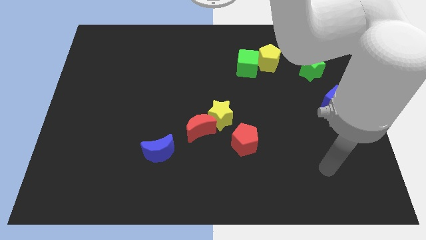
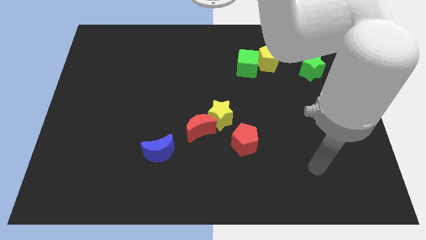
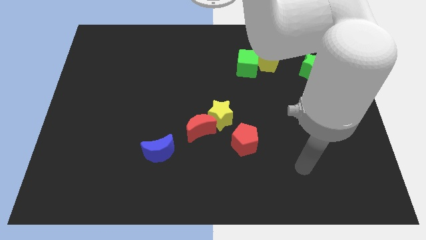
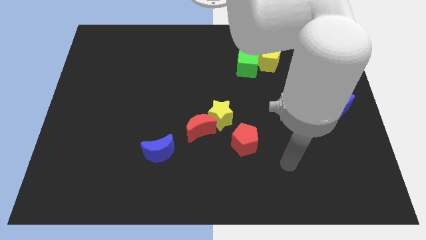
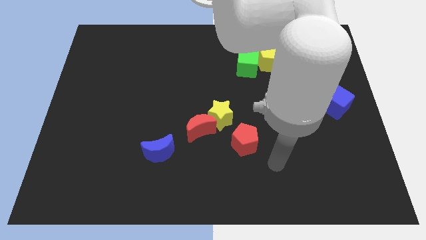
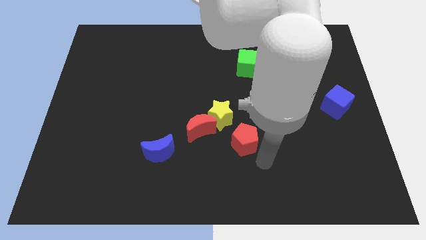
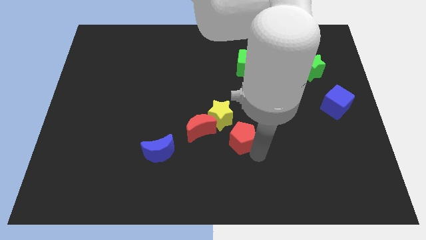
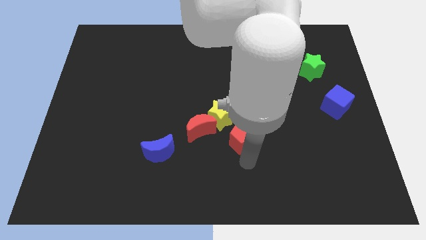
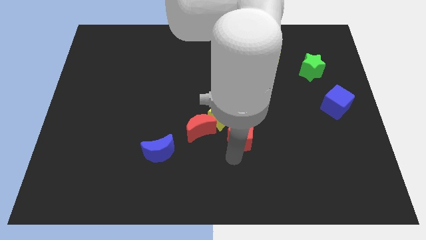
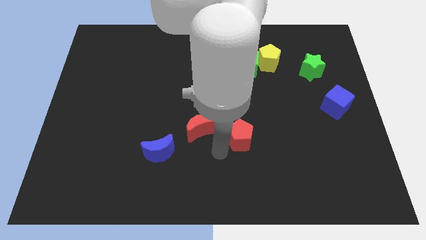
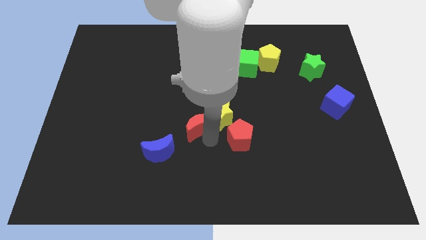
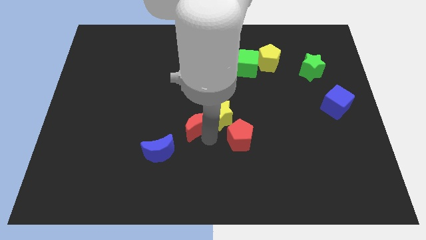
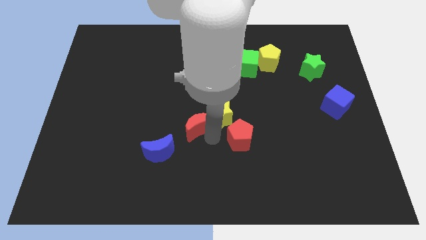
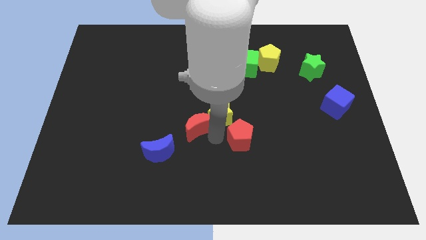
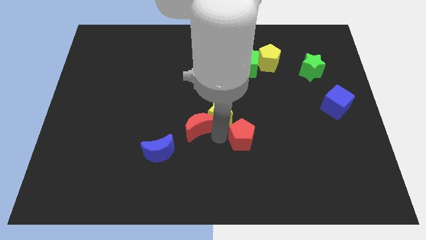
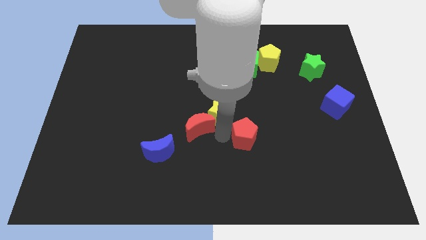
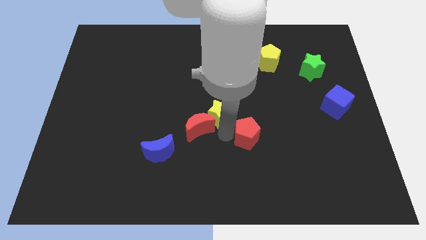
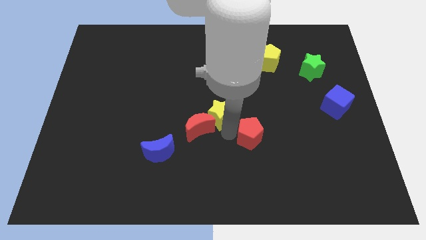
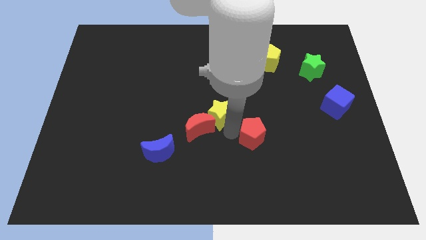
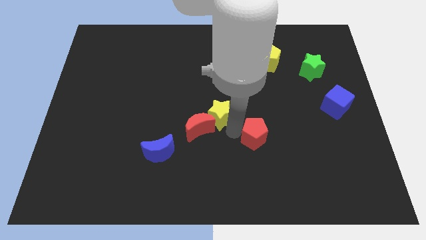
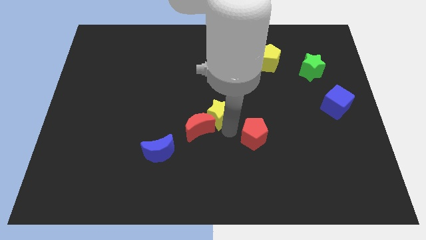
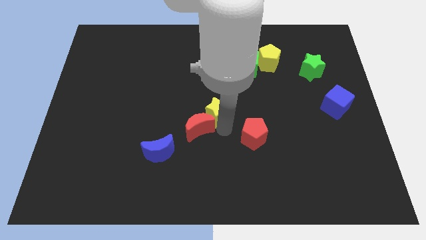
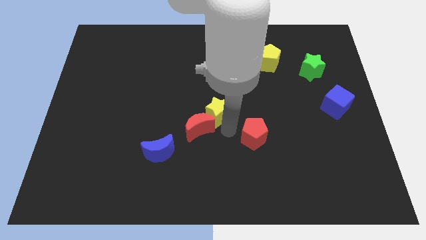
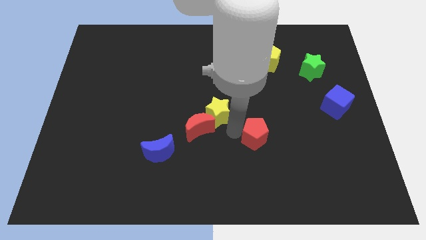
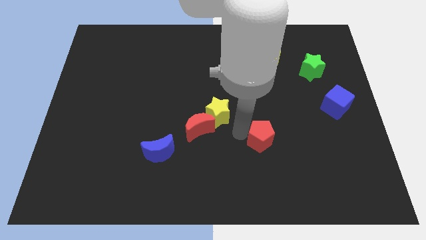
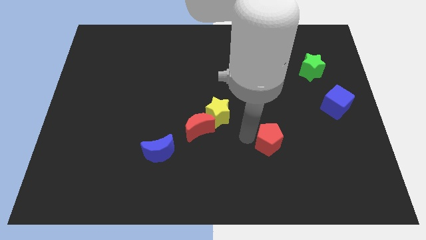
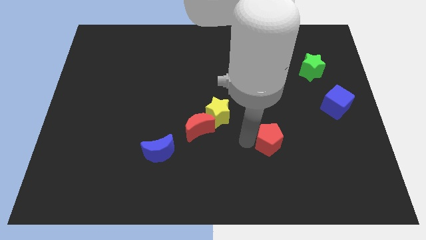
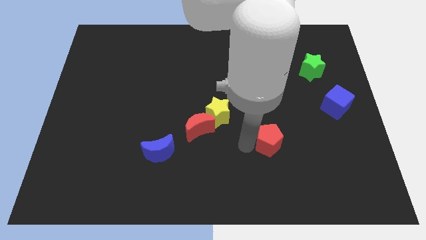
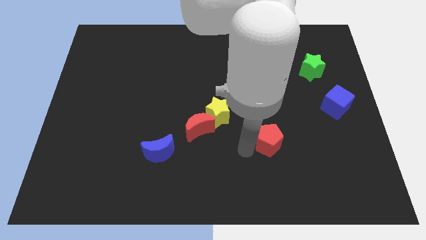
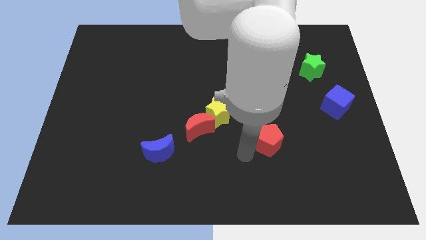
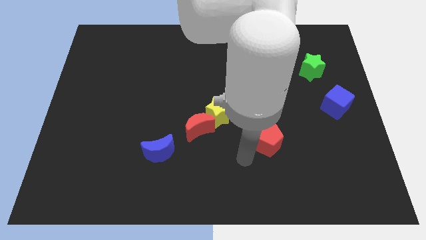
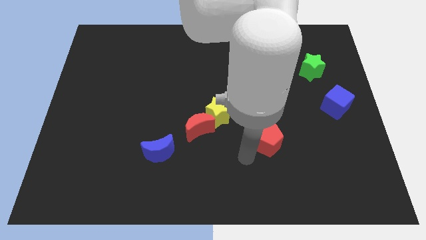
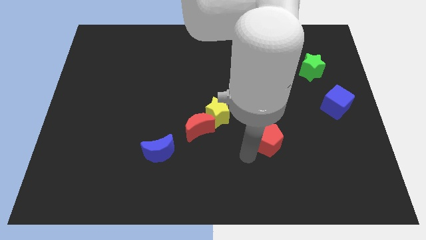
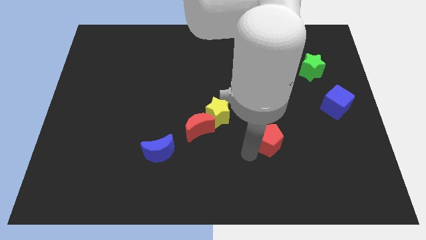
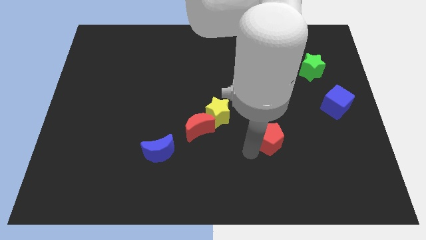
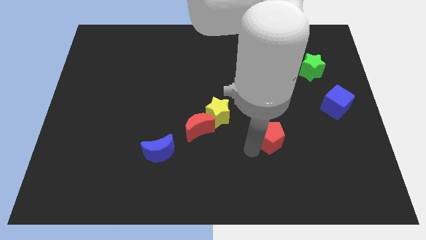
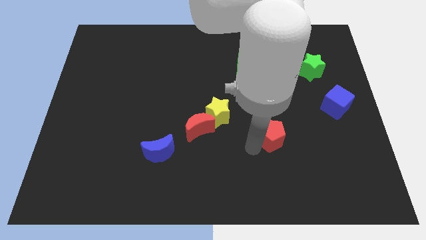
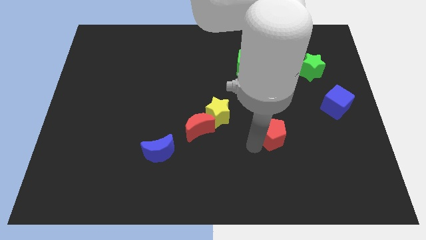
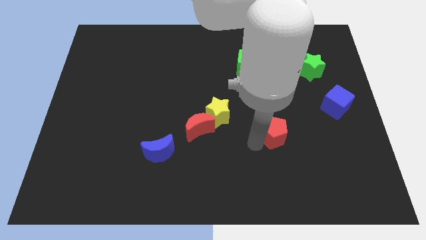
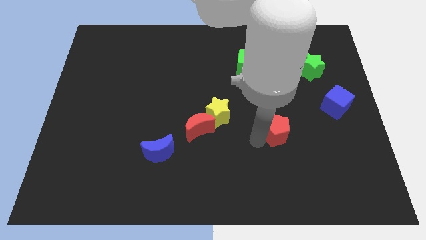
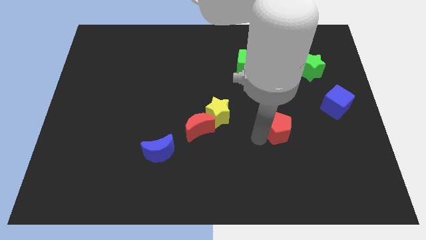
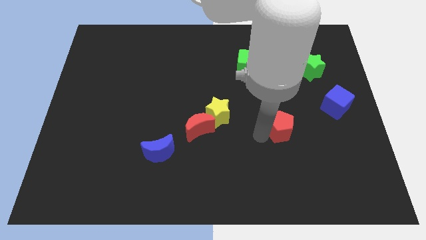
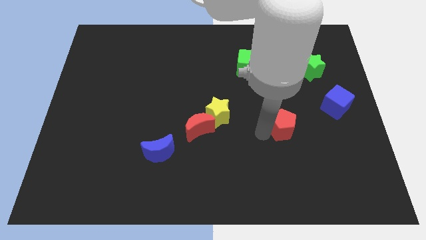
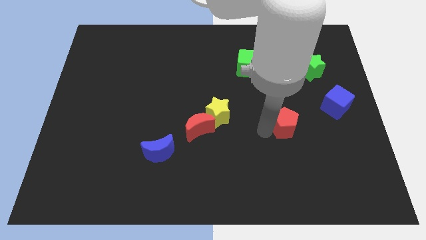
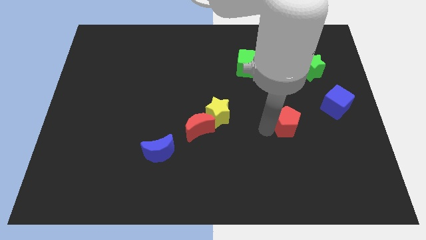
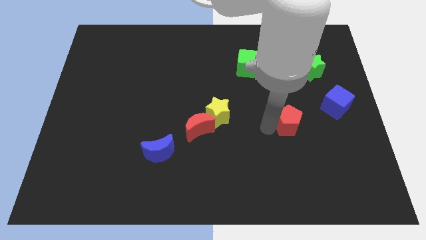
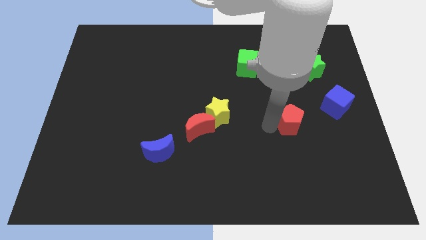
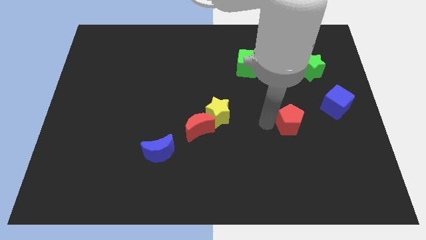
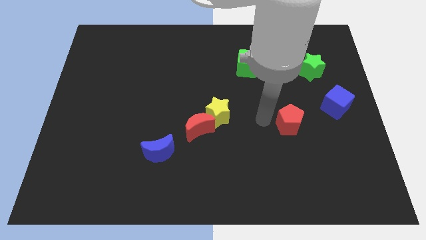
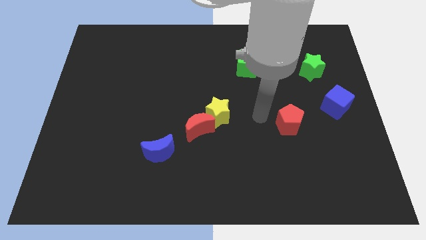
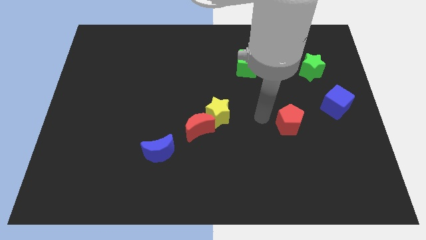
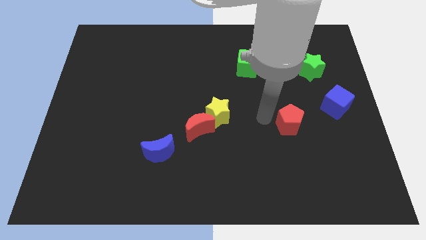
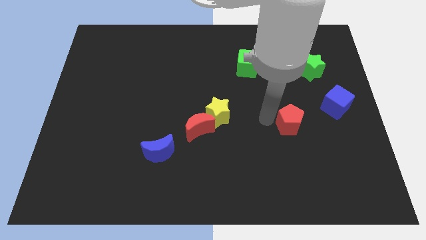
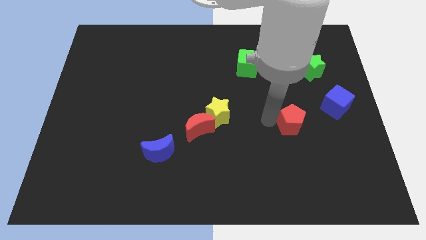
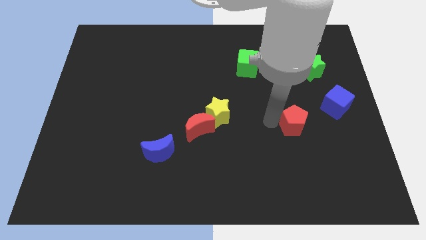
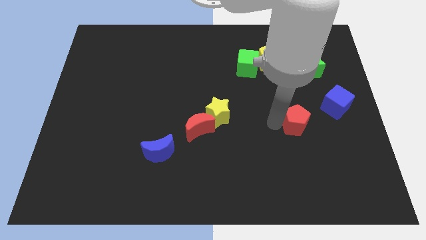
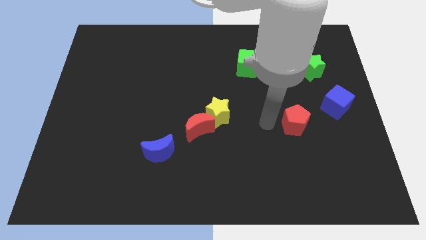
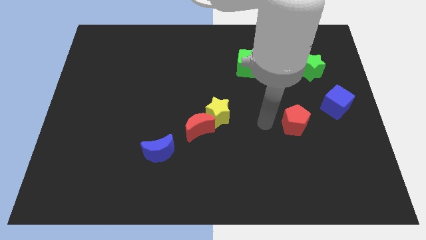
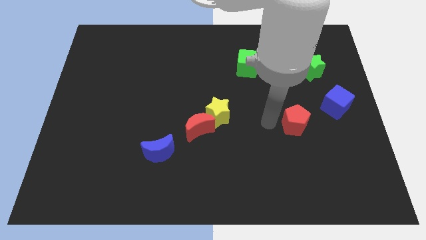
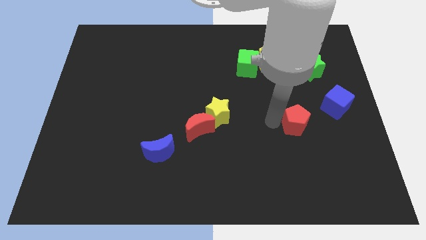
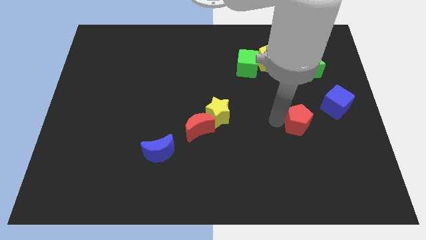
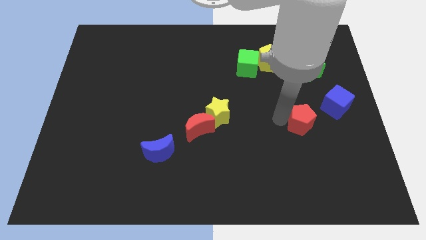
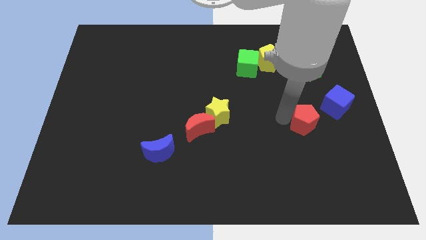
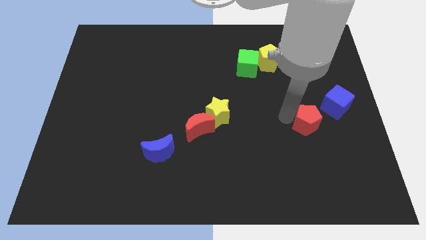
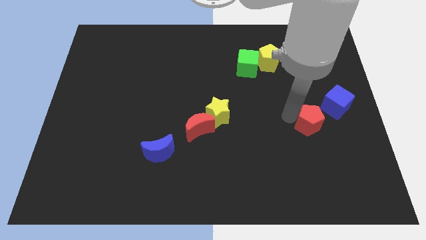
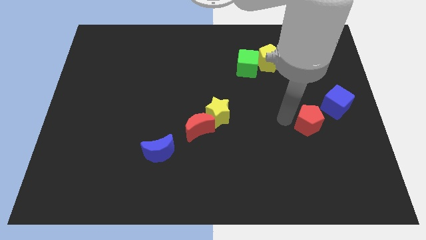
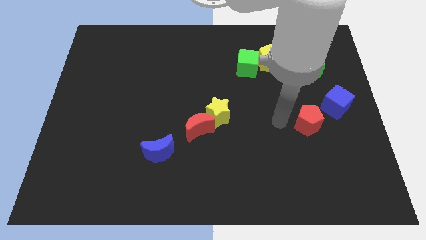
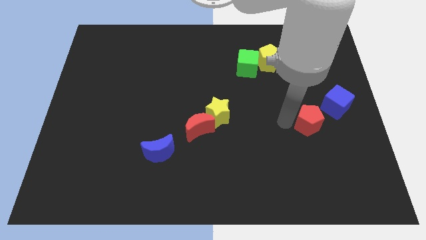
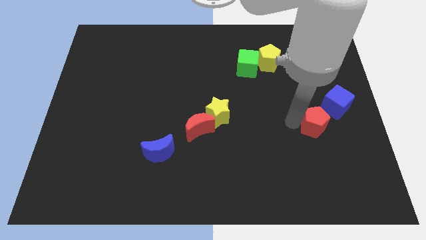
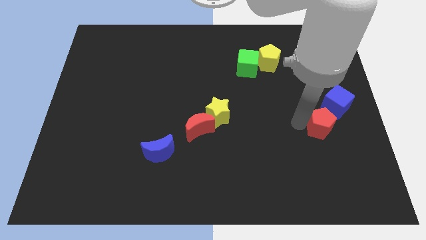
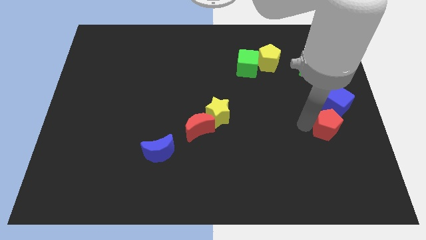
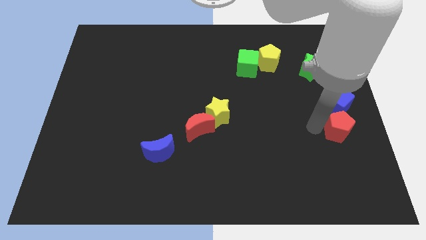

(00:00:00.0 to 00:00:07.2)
move the red pentagon to the right side of the board
